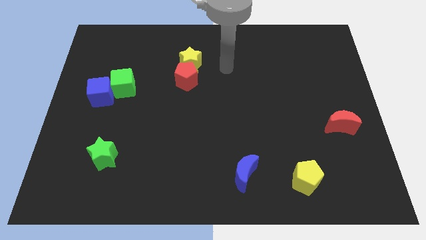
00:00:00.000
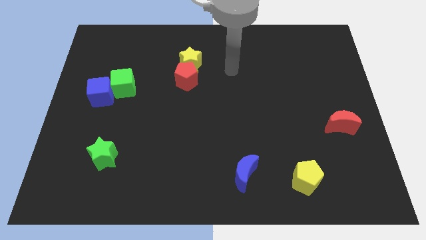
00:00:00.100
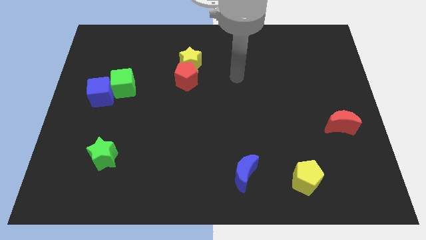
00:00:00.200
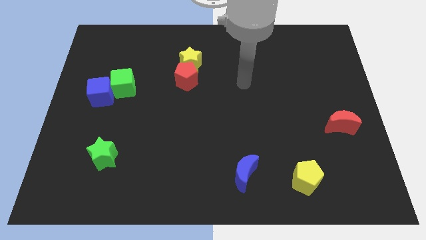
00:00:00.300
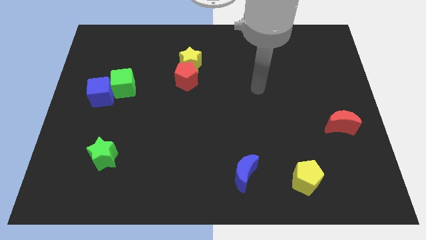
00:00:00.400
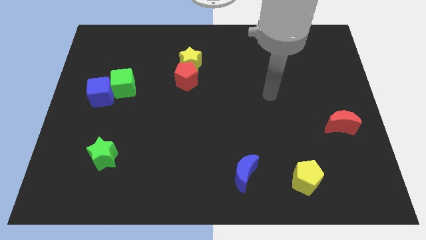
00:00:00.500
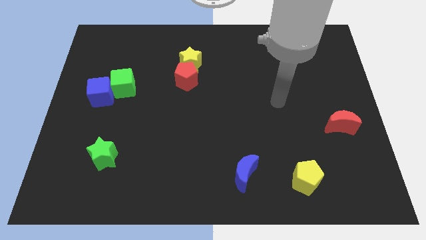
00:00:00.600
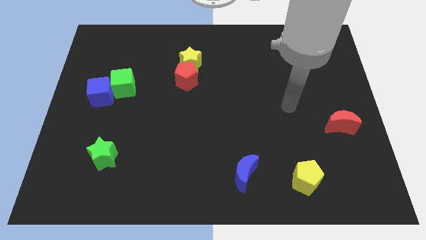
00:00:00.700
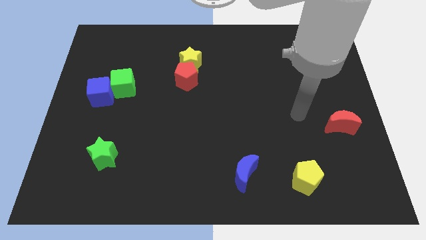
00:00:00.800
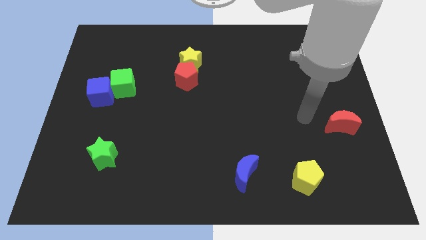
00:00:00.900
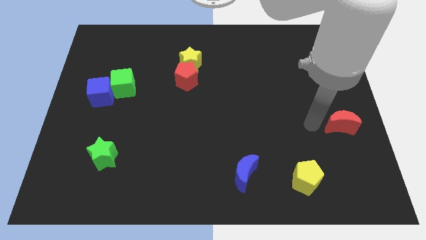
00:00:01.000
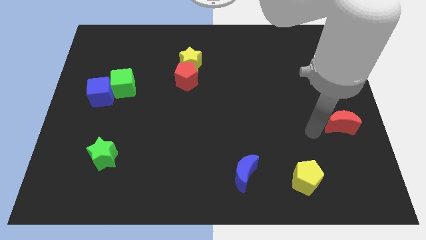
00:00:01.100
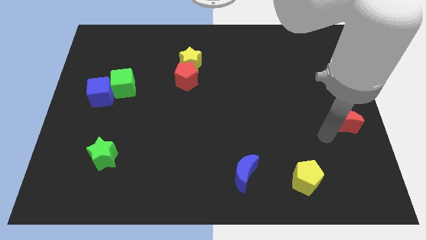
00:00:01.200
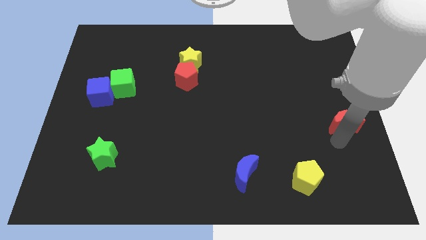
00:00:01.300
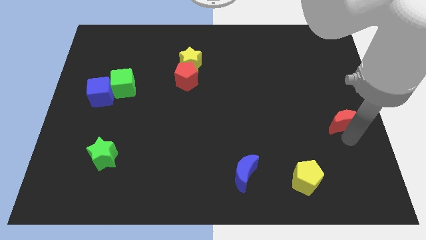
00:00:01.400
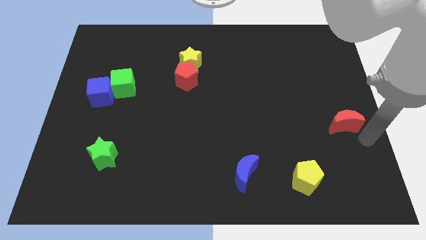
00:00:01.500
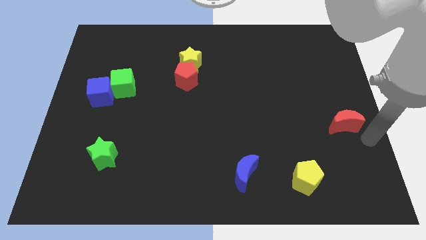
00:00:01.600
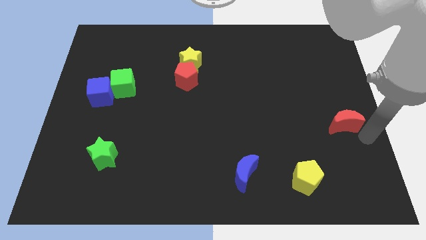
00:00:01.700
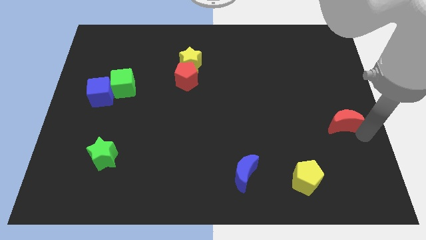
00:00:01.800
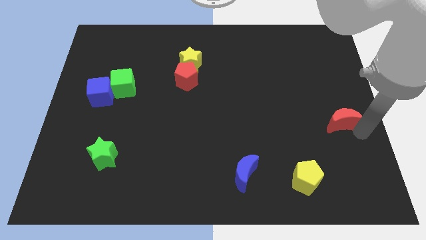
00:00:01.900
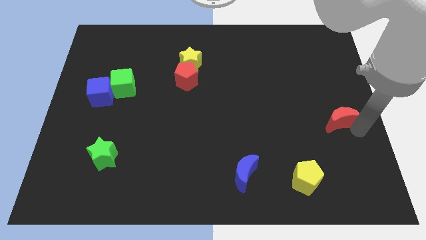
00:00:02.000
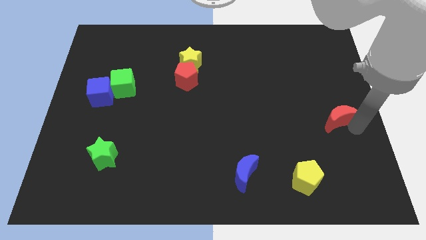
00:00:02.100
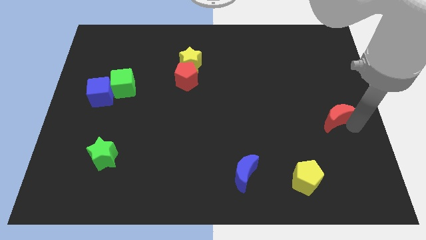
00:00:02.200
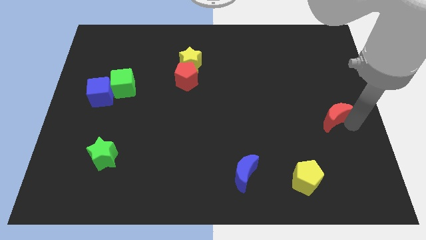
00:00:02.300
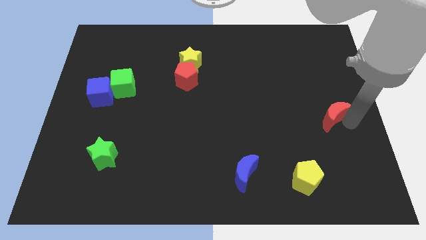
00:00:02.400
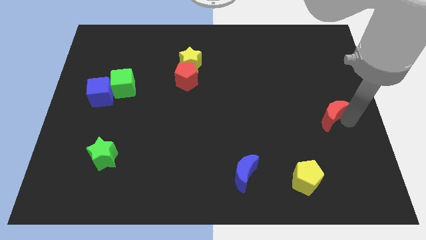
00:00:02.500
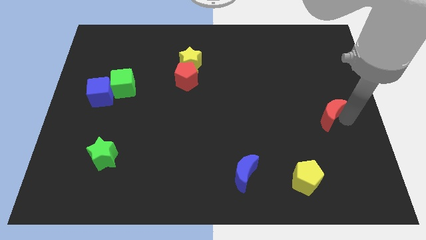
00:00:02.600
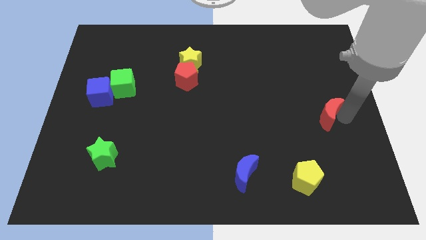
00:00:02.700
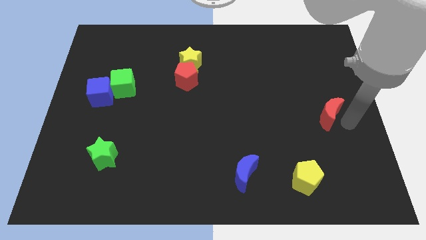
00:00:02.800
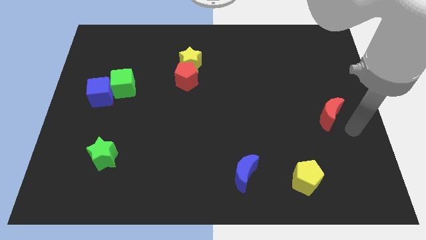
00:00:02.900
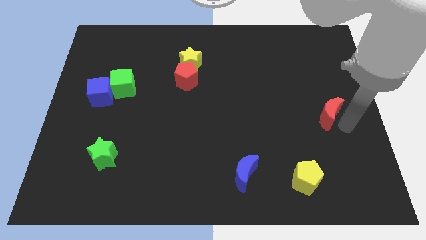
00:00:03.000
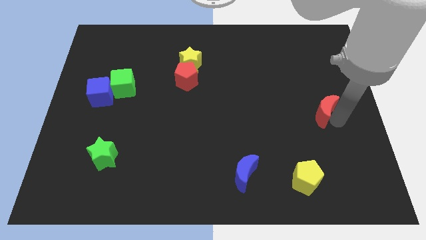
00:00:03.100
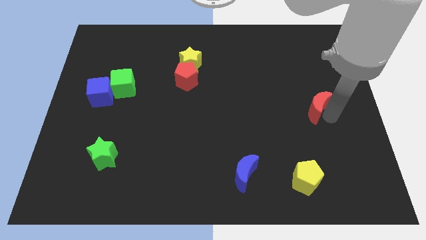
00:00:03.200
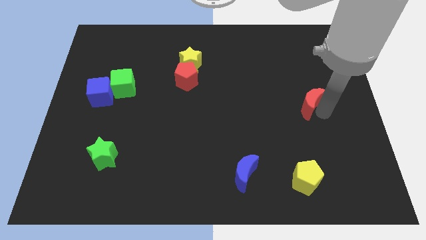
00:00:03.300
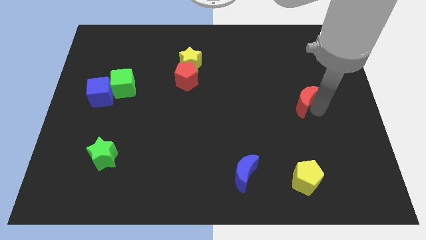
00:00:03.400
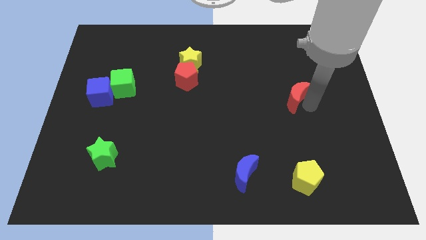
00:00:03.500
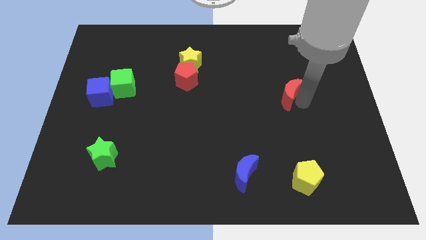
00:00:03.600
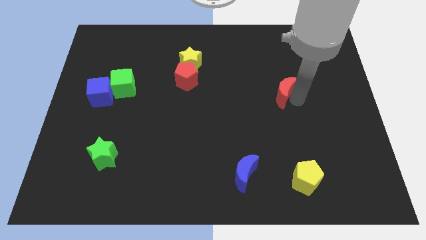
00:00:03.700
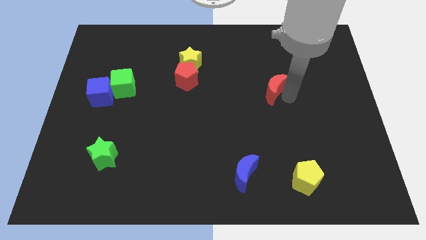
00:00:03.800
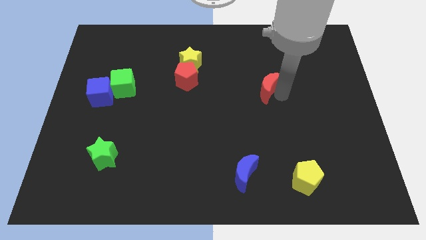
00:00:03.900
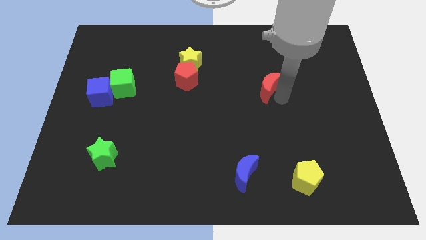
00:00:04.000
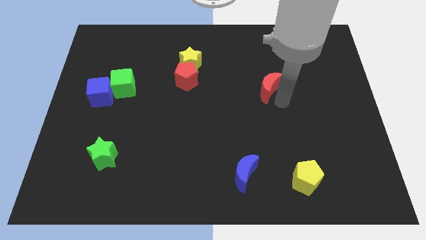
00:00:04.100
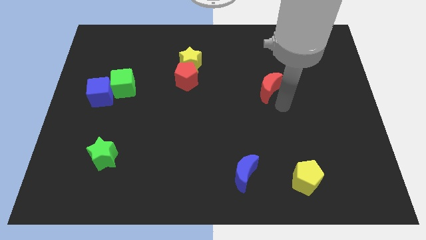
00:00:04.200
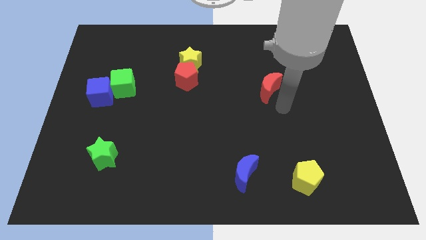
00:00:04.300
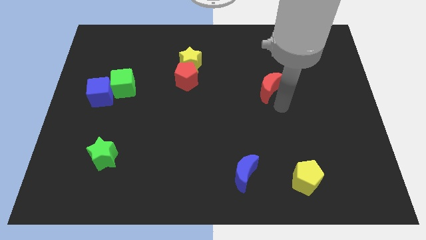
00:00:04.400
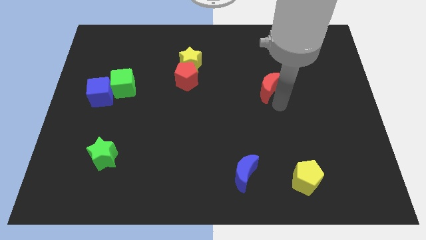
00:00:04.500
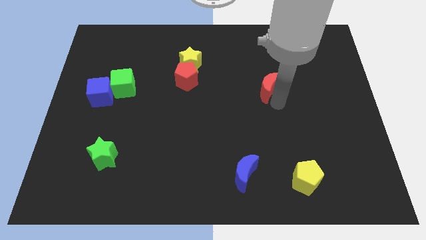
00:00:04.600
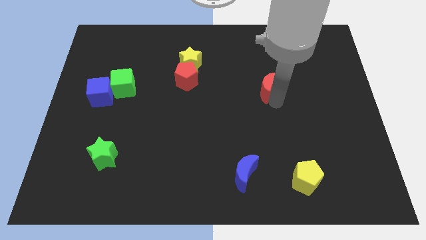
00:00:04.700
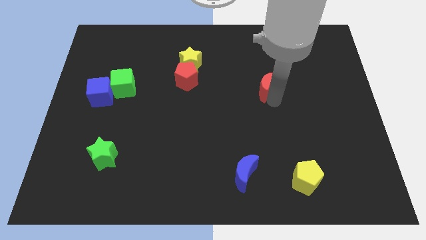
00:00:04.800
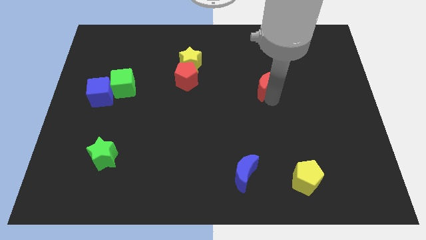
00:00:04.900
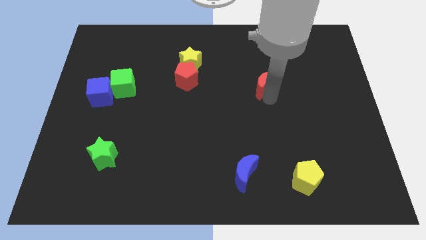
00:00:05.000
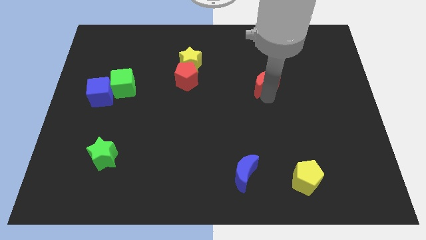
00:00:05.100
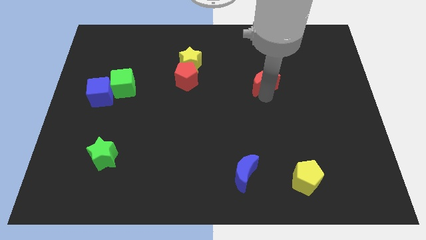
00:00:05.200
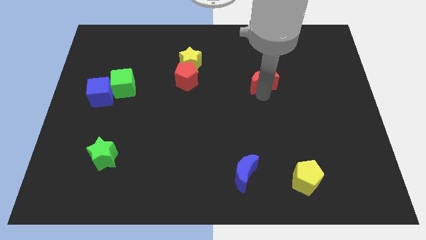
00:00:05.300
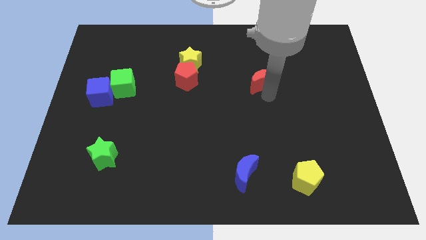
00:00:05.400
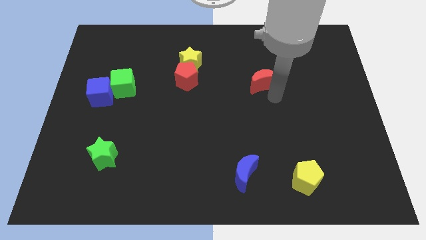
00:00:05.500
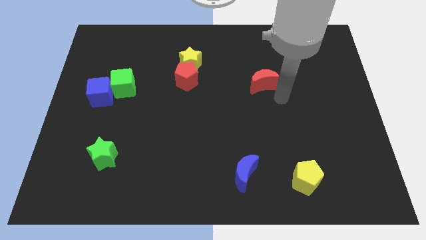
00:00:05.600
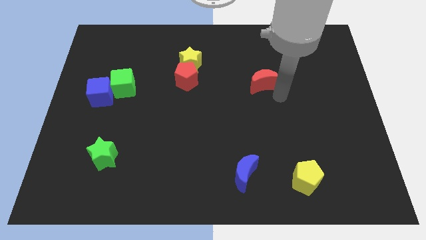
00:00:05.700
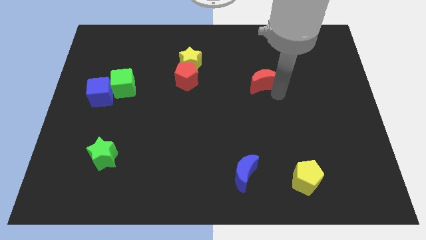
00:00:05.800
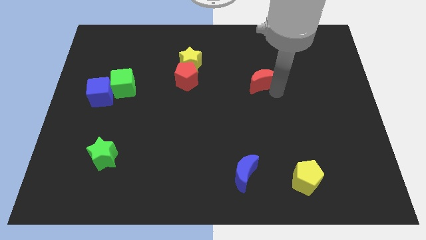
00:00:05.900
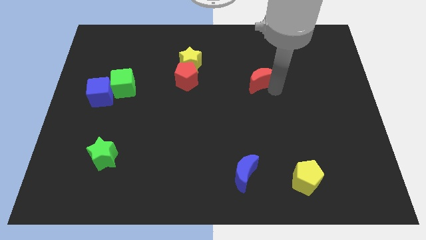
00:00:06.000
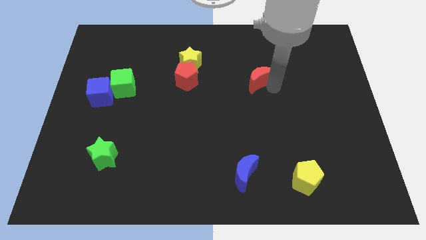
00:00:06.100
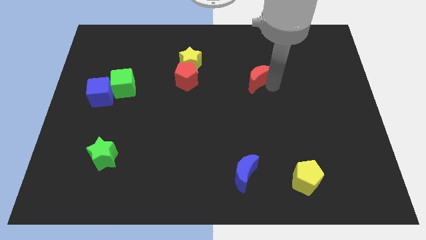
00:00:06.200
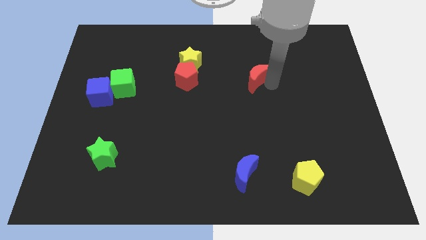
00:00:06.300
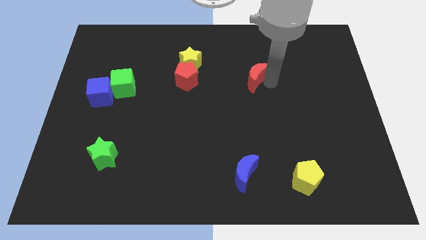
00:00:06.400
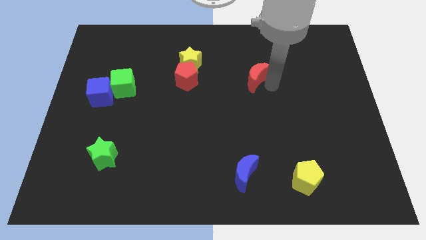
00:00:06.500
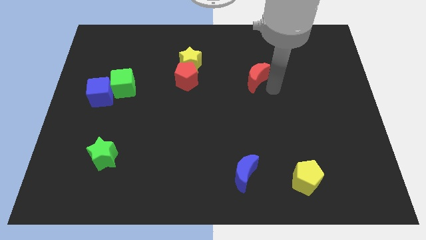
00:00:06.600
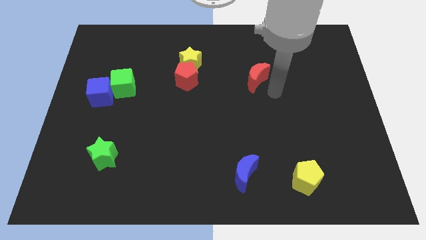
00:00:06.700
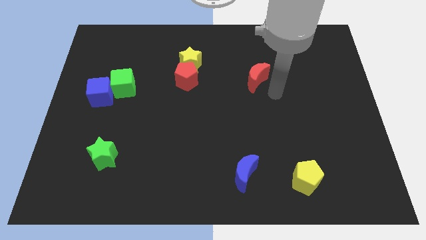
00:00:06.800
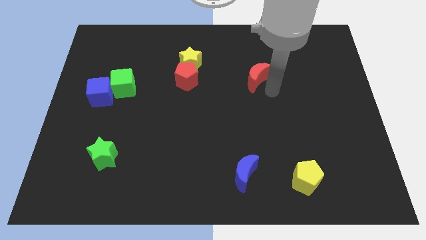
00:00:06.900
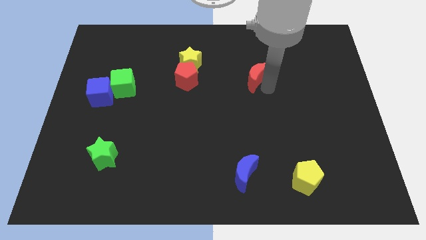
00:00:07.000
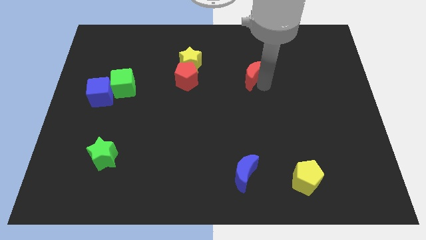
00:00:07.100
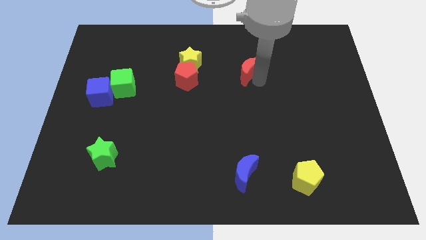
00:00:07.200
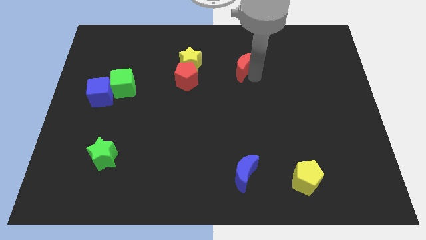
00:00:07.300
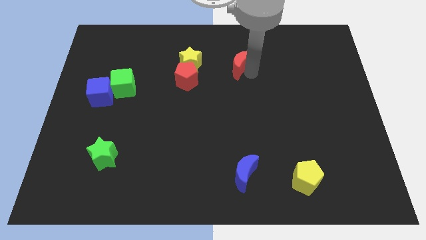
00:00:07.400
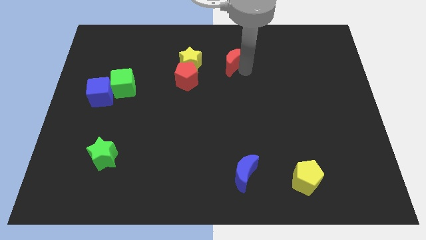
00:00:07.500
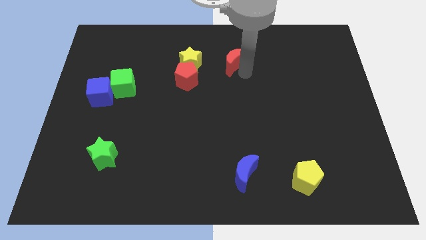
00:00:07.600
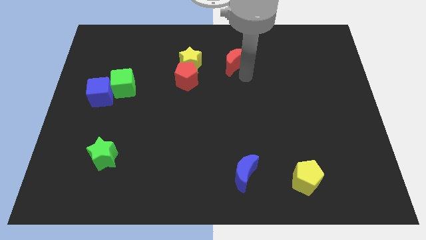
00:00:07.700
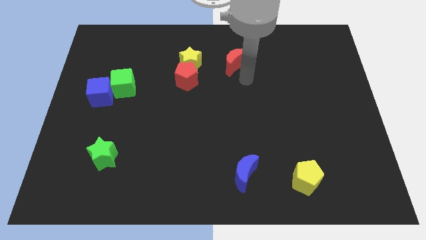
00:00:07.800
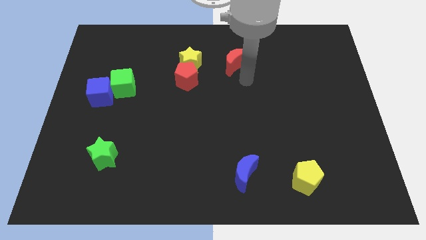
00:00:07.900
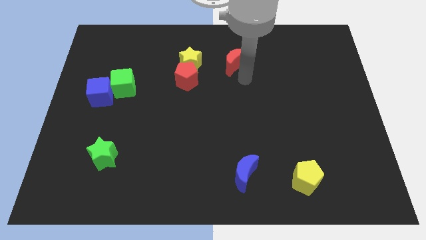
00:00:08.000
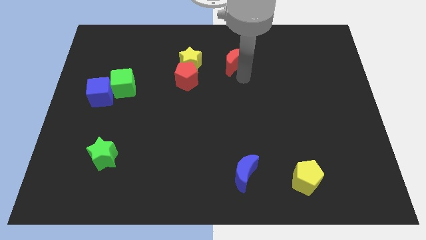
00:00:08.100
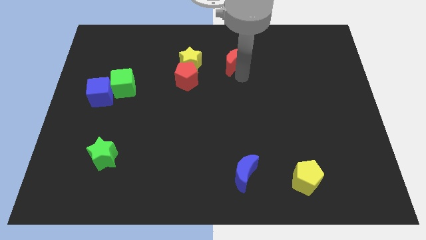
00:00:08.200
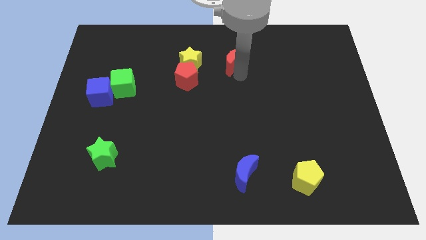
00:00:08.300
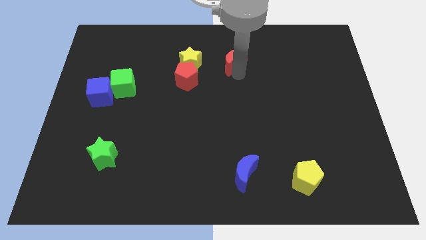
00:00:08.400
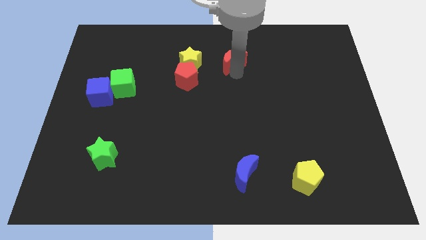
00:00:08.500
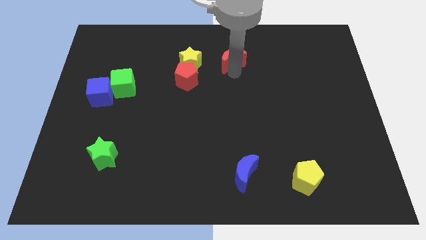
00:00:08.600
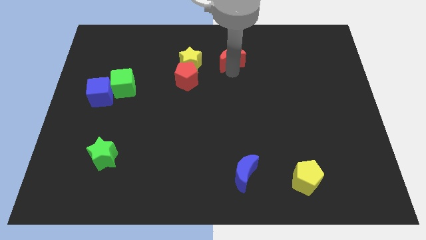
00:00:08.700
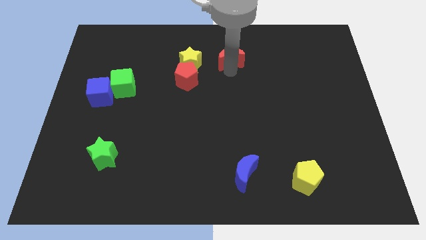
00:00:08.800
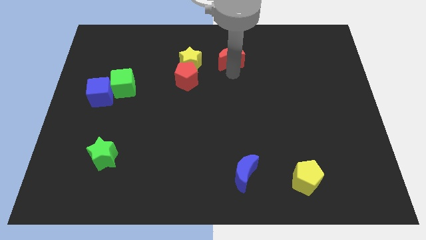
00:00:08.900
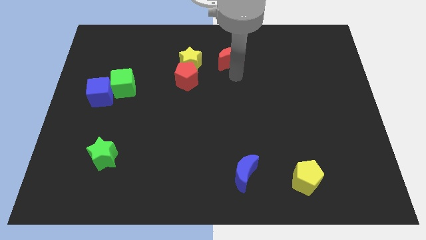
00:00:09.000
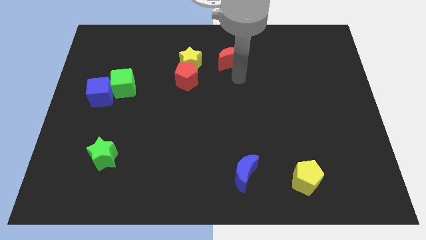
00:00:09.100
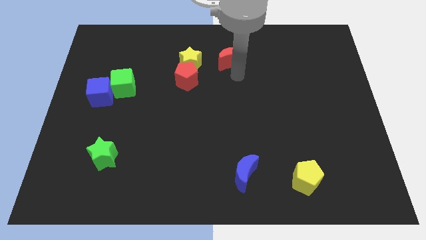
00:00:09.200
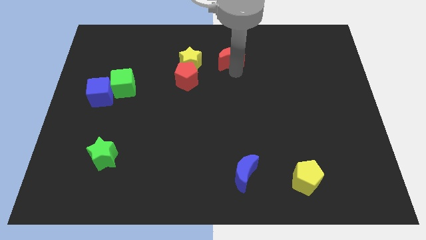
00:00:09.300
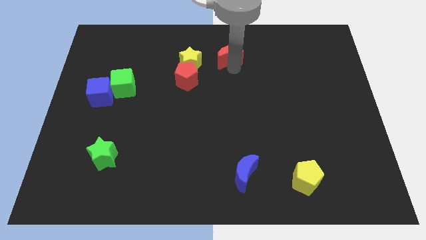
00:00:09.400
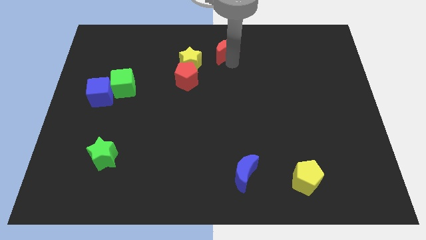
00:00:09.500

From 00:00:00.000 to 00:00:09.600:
push the red moon to the top
